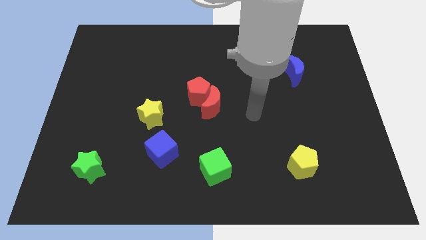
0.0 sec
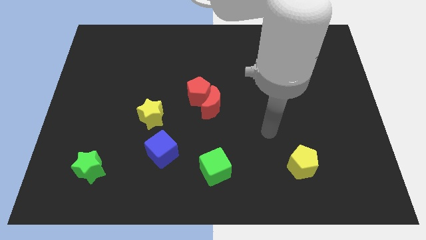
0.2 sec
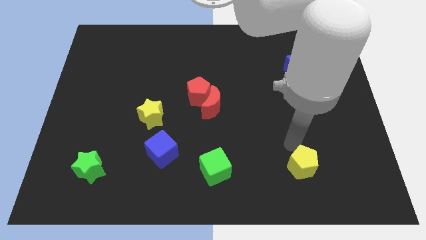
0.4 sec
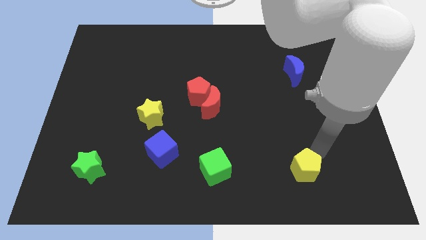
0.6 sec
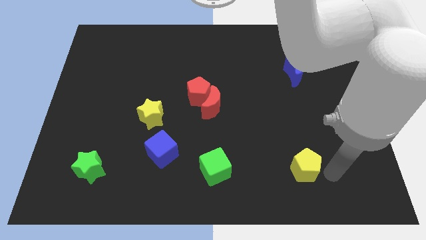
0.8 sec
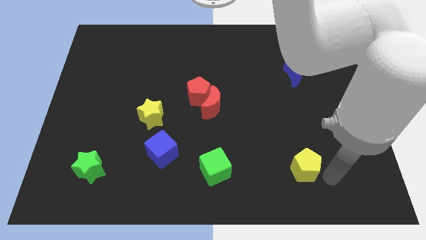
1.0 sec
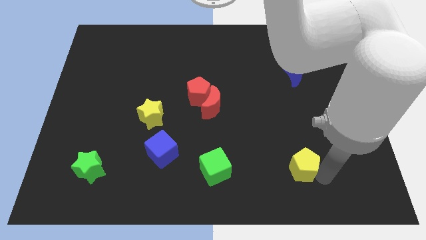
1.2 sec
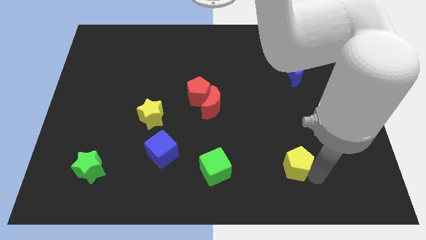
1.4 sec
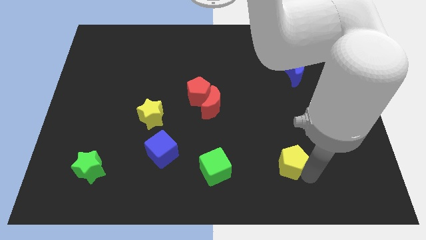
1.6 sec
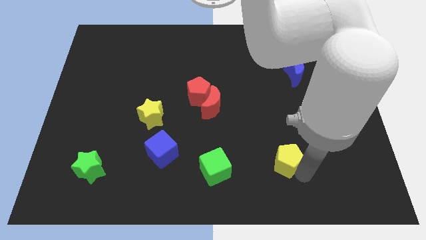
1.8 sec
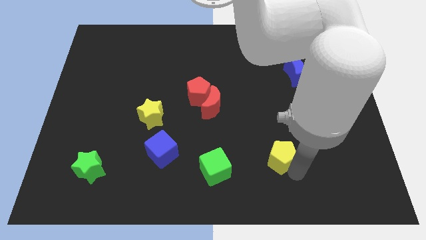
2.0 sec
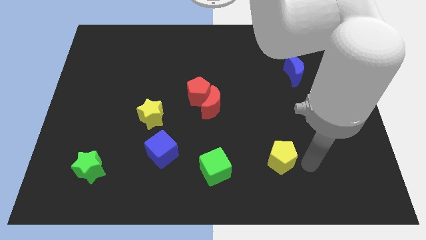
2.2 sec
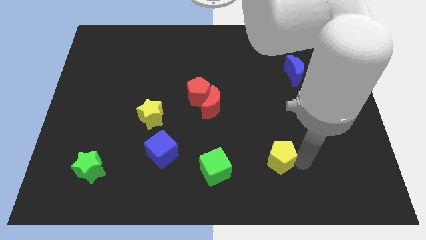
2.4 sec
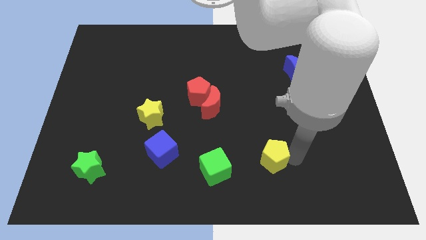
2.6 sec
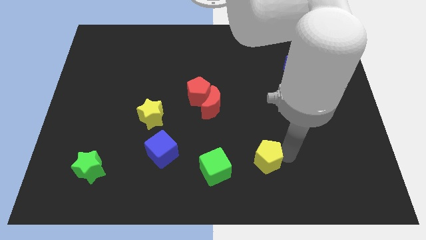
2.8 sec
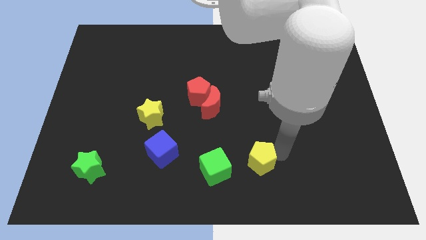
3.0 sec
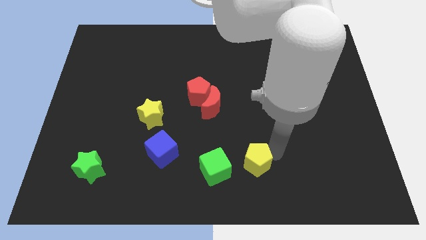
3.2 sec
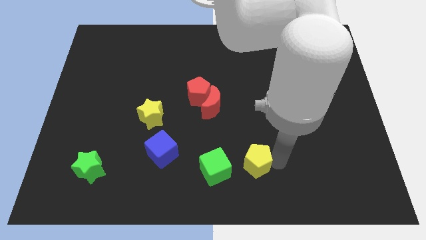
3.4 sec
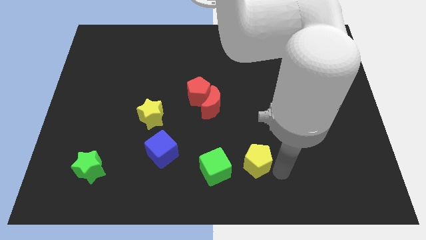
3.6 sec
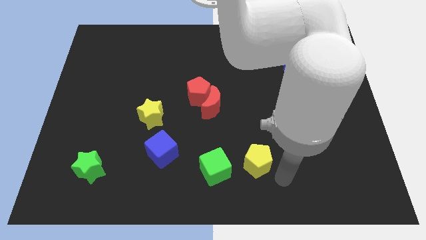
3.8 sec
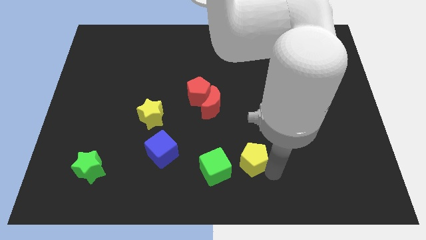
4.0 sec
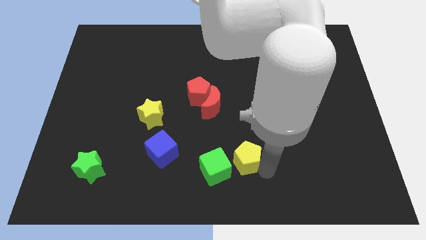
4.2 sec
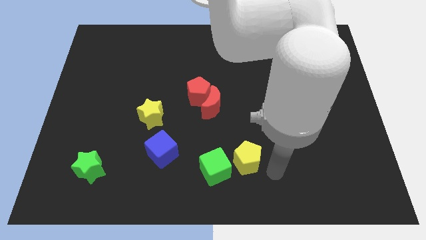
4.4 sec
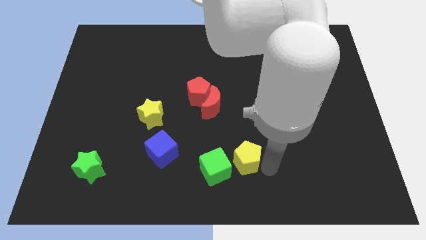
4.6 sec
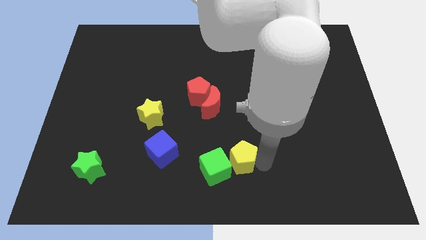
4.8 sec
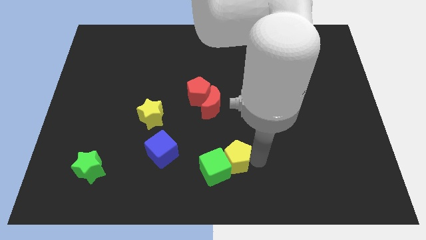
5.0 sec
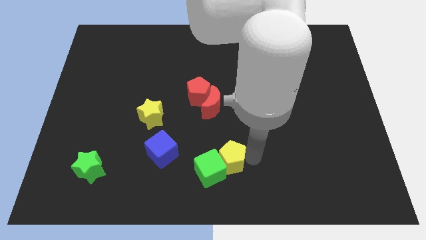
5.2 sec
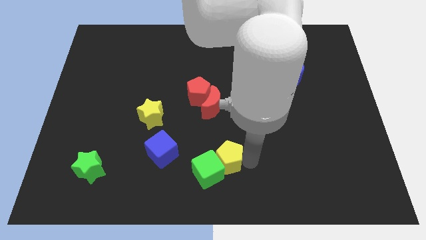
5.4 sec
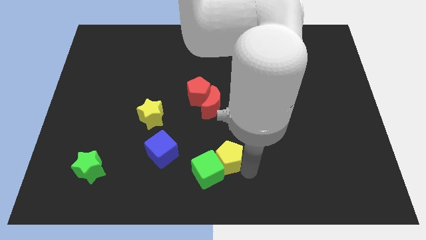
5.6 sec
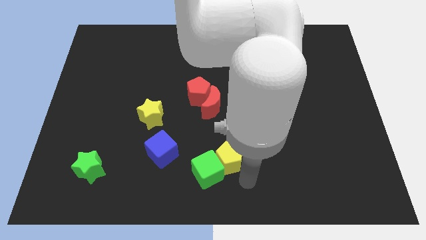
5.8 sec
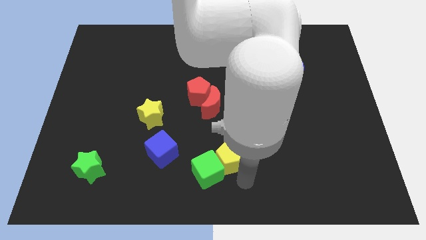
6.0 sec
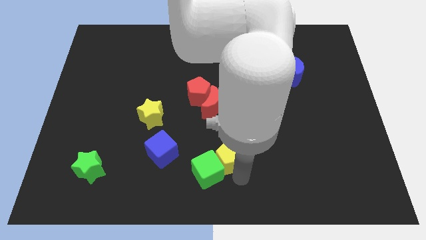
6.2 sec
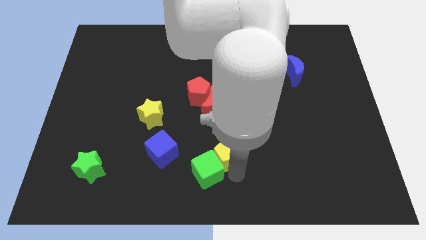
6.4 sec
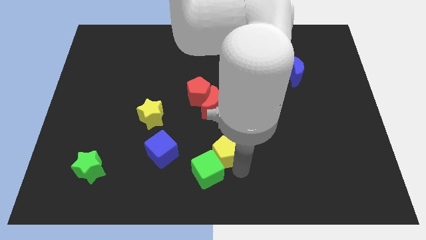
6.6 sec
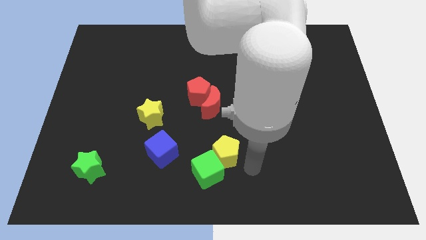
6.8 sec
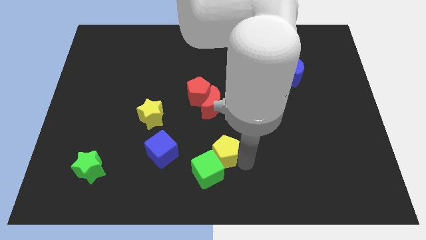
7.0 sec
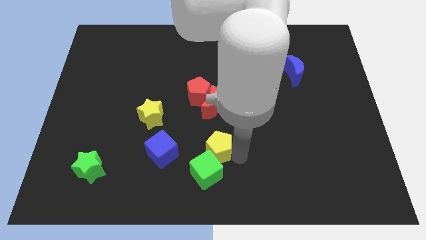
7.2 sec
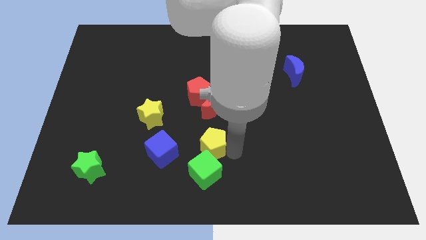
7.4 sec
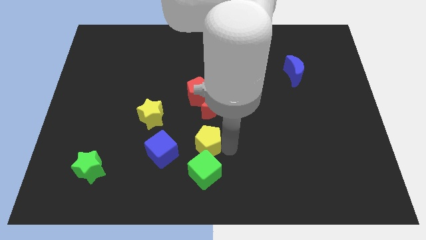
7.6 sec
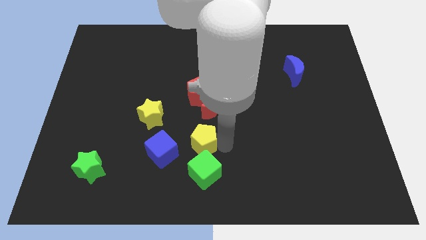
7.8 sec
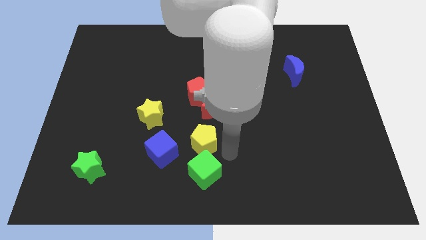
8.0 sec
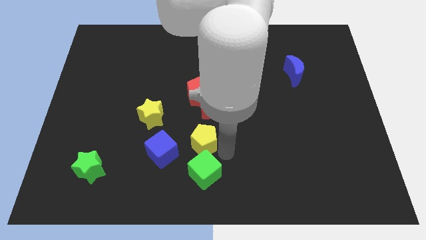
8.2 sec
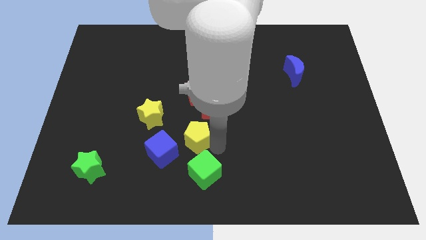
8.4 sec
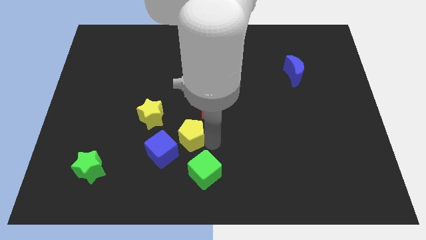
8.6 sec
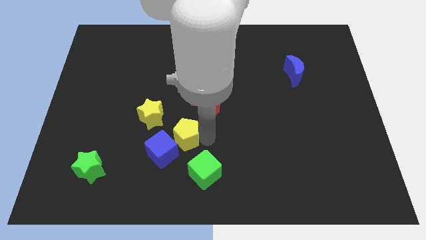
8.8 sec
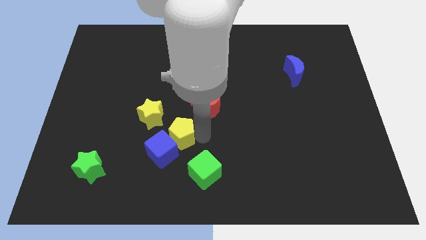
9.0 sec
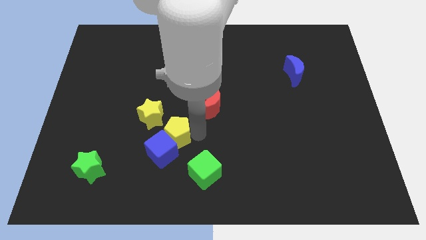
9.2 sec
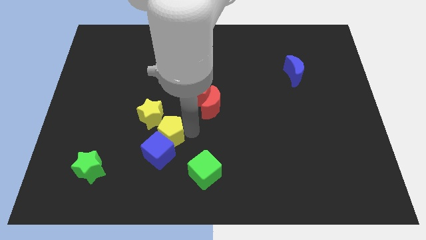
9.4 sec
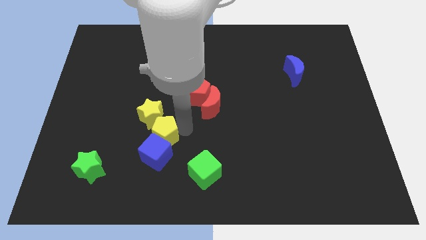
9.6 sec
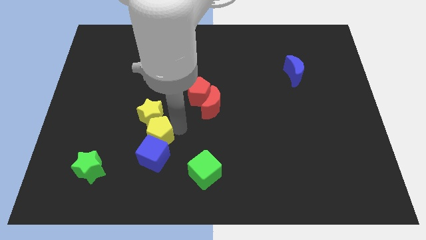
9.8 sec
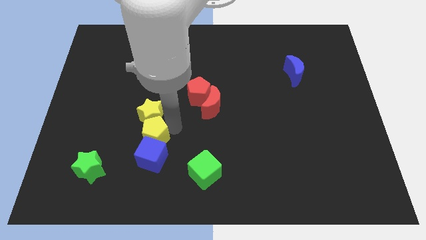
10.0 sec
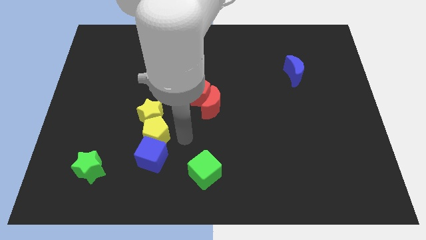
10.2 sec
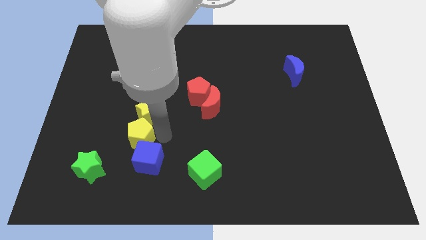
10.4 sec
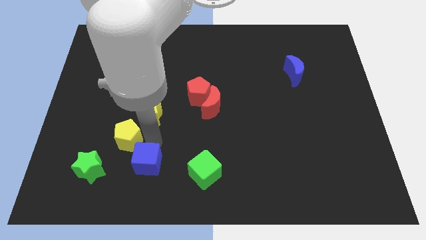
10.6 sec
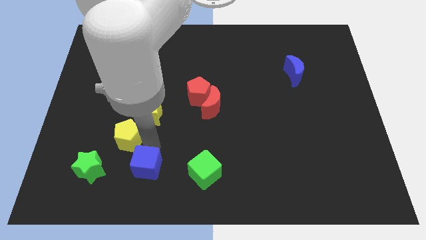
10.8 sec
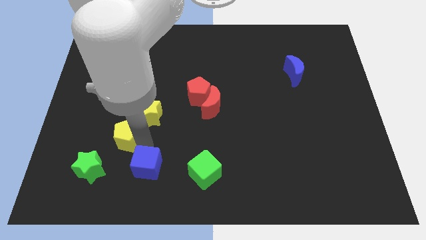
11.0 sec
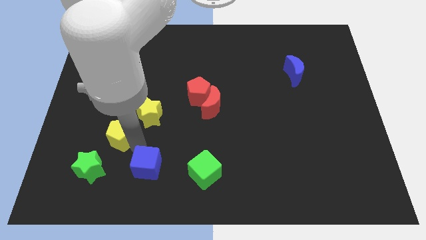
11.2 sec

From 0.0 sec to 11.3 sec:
push the yellow pentagon to the top of the green star

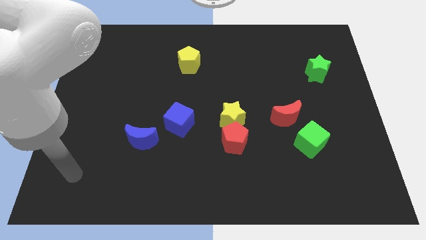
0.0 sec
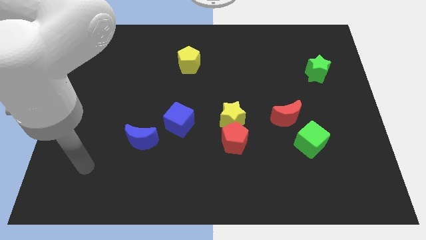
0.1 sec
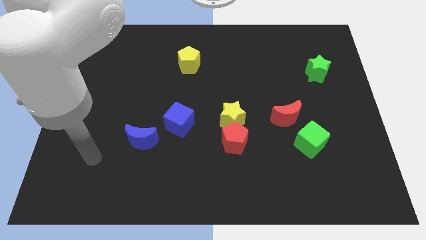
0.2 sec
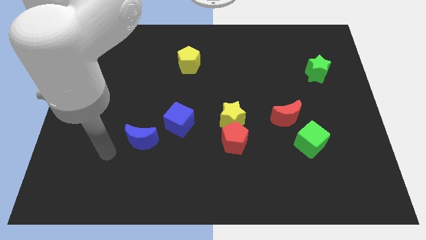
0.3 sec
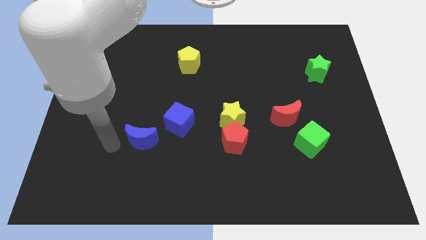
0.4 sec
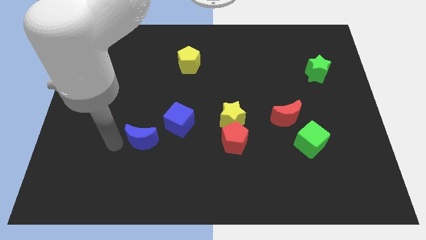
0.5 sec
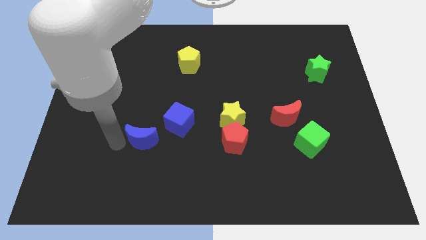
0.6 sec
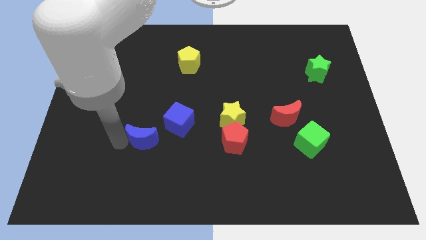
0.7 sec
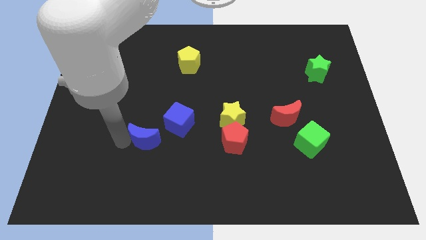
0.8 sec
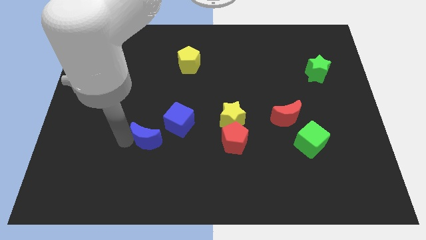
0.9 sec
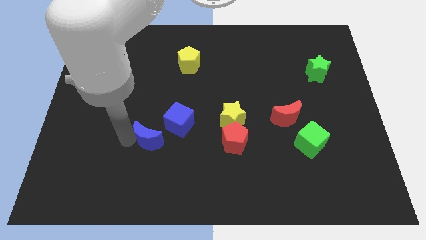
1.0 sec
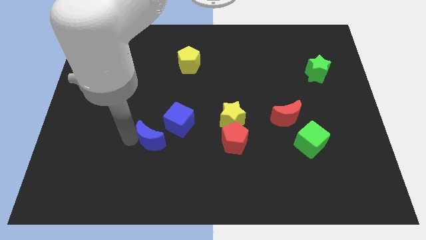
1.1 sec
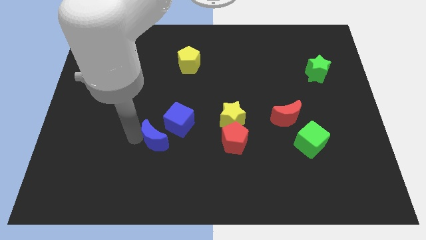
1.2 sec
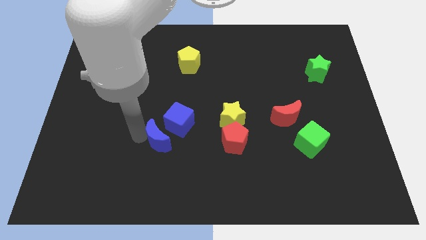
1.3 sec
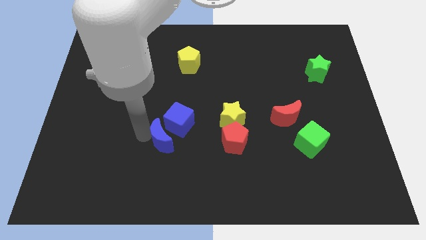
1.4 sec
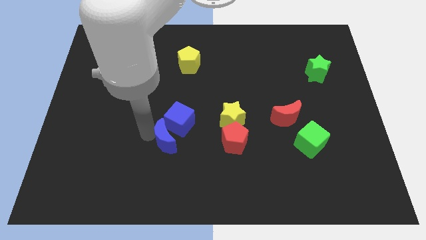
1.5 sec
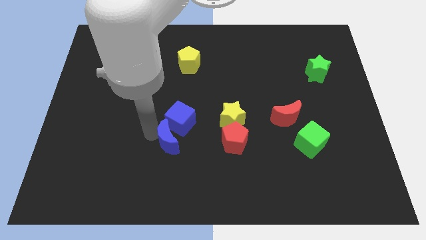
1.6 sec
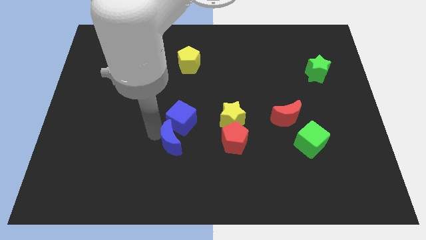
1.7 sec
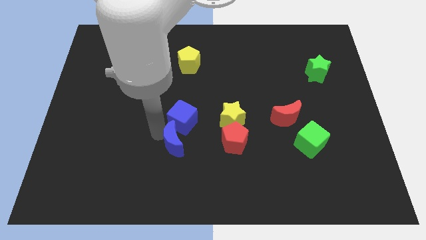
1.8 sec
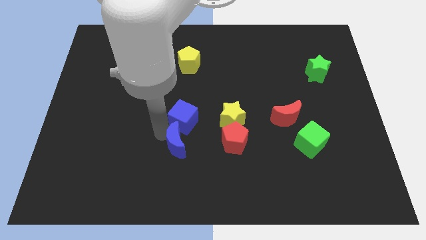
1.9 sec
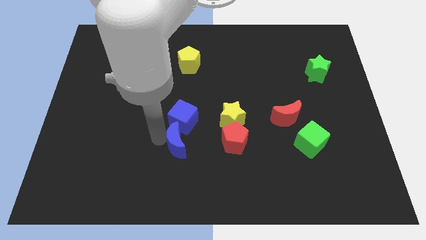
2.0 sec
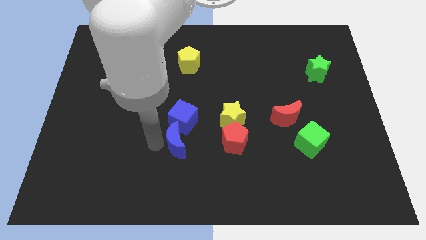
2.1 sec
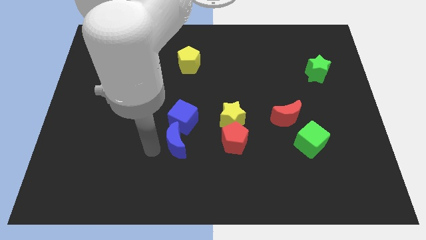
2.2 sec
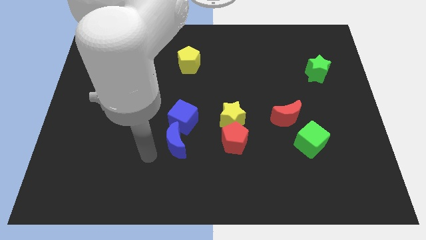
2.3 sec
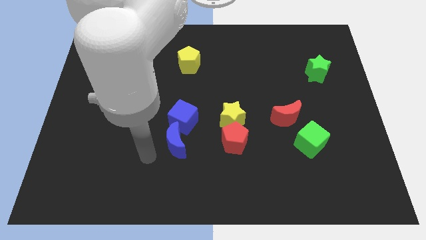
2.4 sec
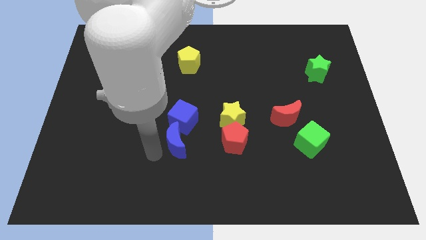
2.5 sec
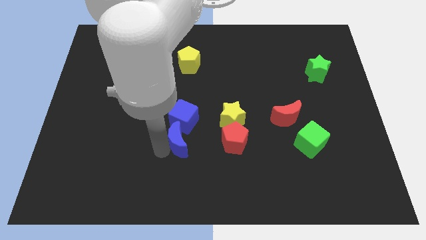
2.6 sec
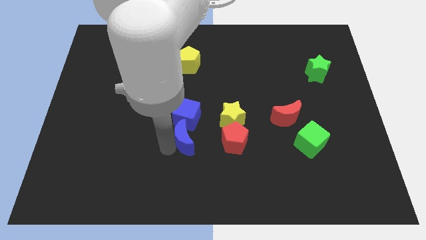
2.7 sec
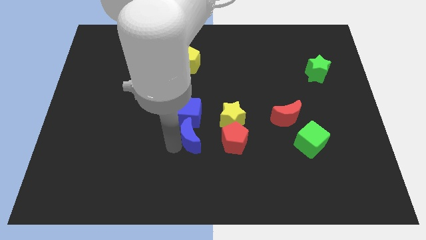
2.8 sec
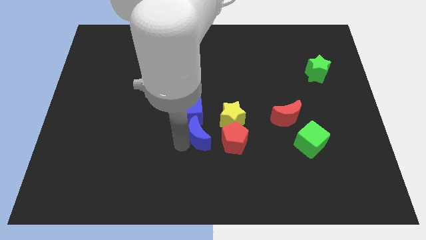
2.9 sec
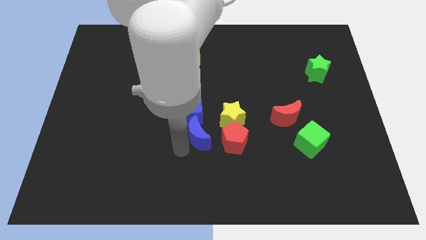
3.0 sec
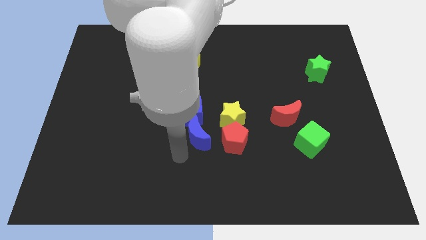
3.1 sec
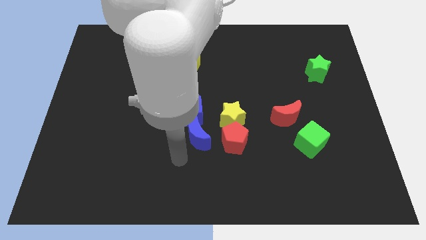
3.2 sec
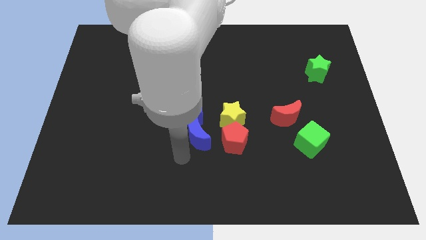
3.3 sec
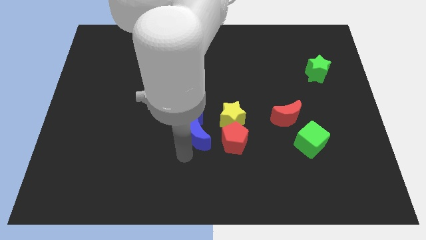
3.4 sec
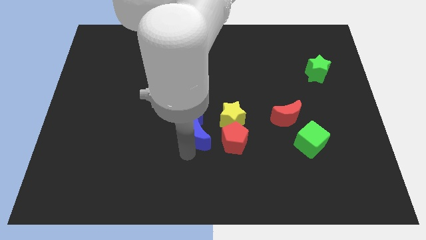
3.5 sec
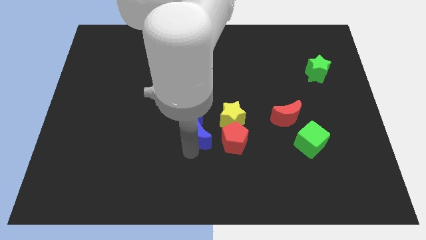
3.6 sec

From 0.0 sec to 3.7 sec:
put the blue moon to the top left of the red pentagon
